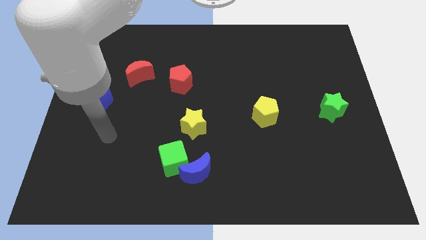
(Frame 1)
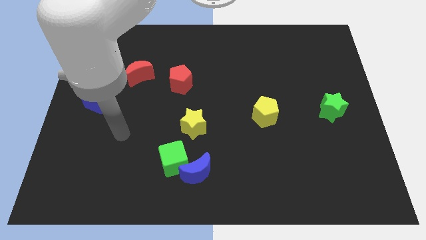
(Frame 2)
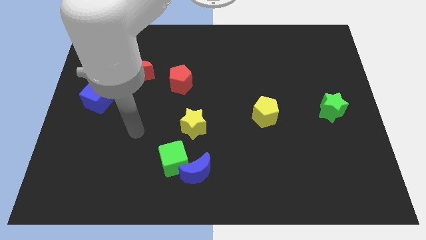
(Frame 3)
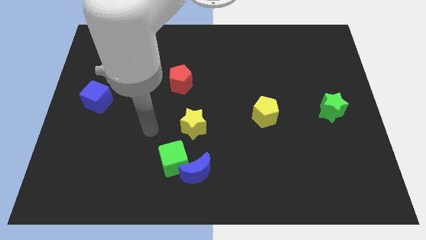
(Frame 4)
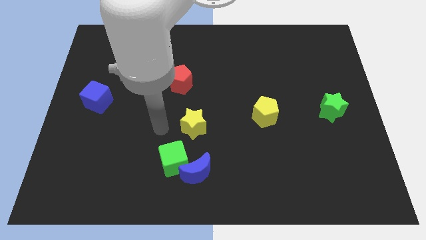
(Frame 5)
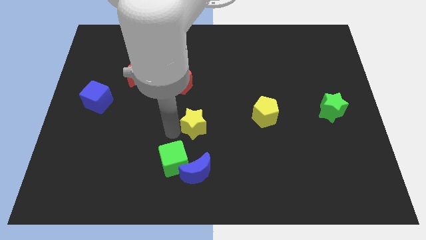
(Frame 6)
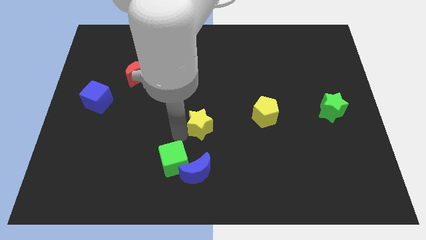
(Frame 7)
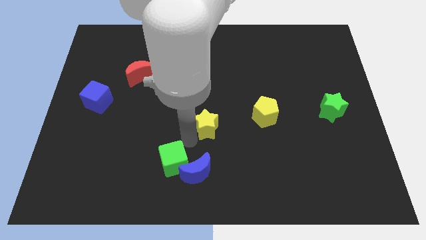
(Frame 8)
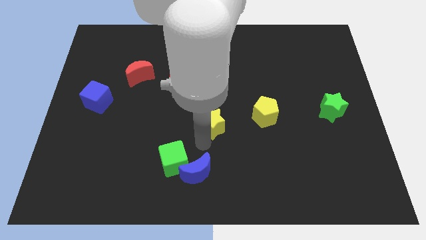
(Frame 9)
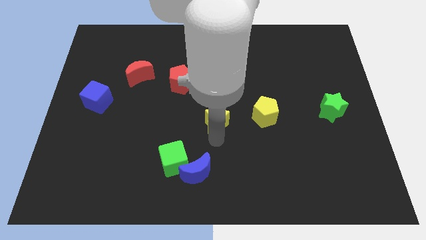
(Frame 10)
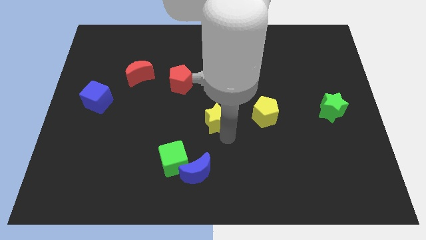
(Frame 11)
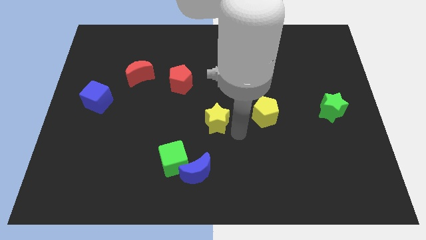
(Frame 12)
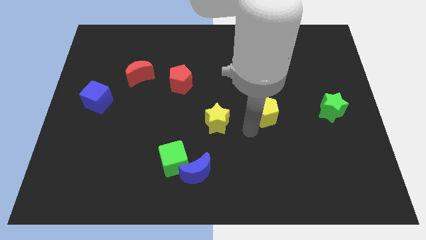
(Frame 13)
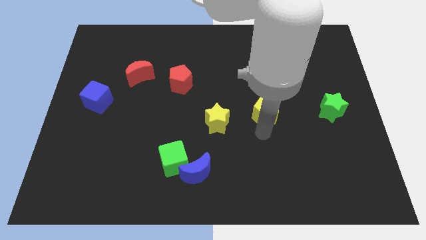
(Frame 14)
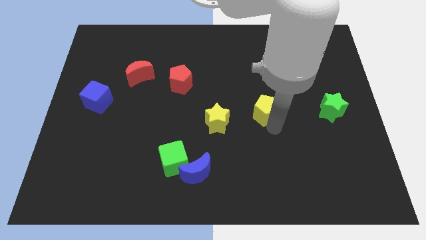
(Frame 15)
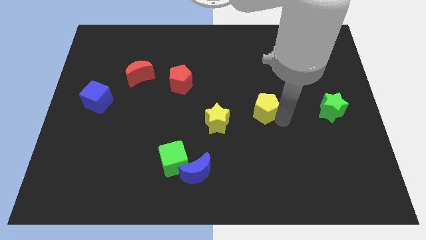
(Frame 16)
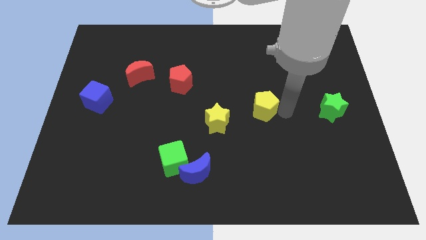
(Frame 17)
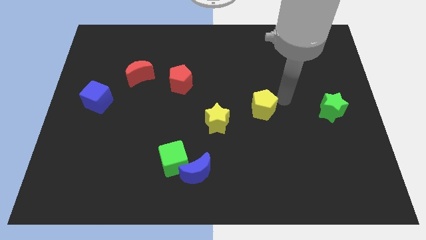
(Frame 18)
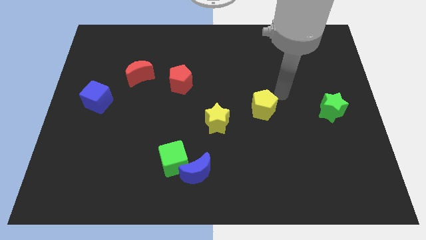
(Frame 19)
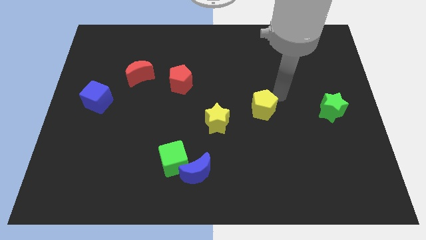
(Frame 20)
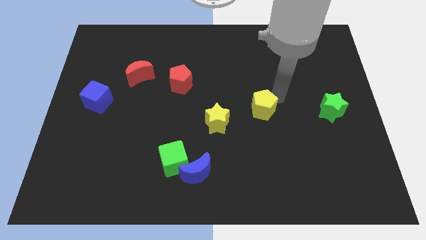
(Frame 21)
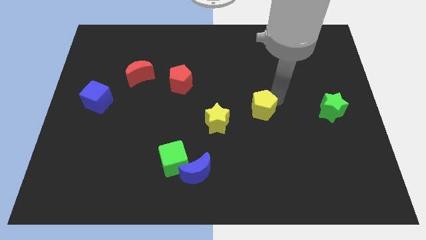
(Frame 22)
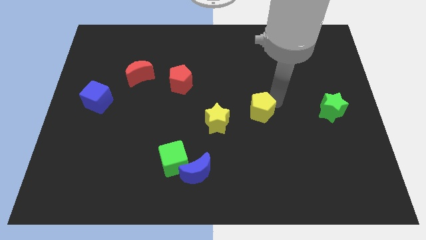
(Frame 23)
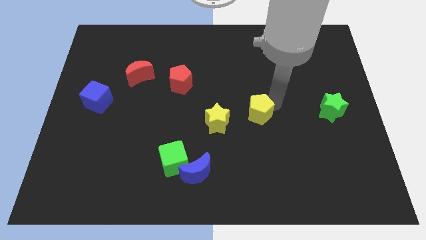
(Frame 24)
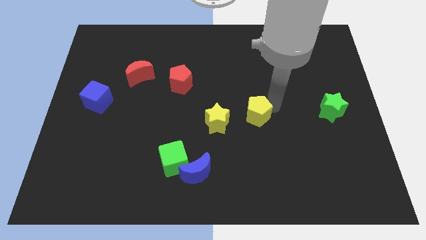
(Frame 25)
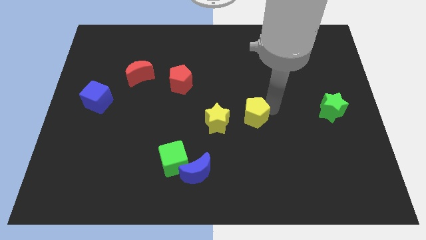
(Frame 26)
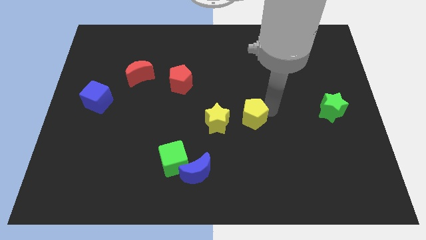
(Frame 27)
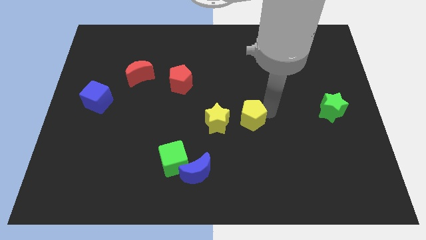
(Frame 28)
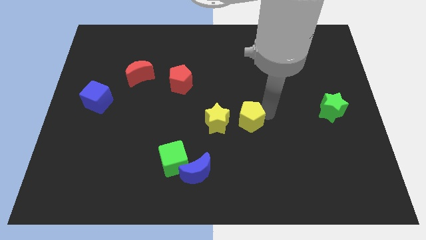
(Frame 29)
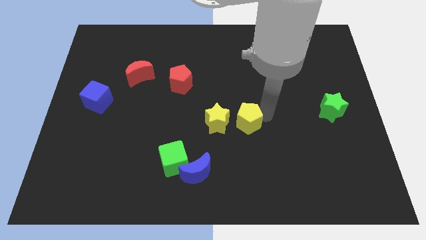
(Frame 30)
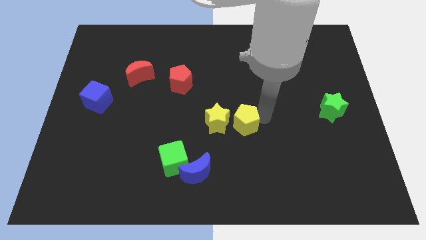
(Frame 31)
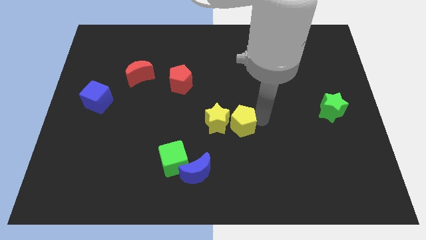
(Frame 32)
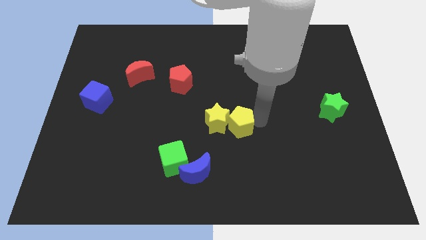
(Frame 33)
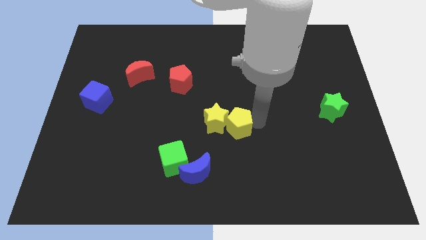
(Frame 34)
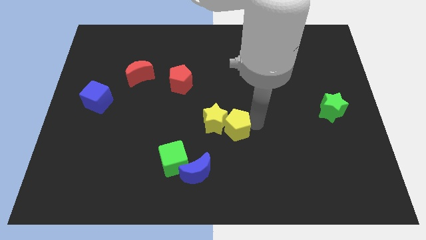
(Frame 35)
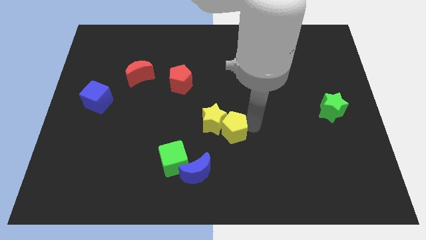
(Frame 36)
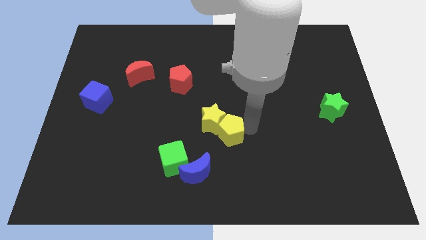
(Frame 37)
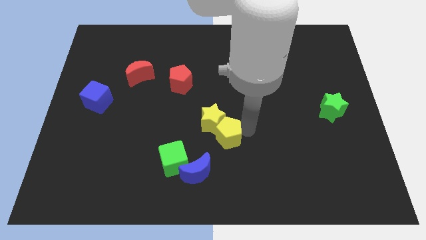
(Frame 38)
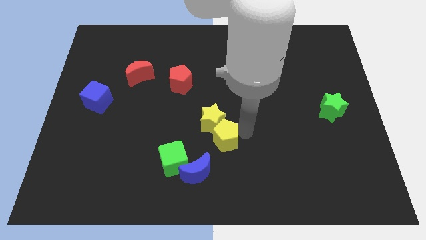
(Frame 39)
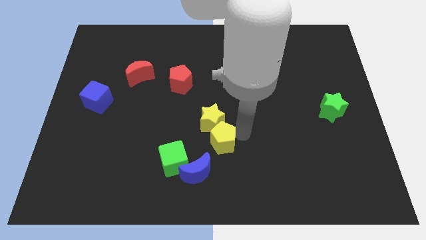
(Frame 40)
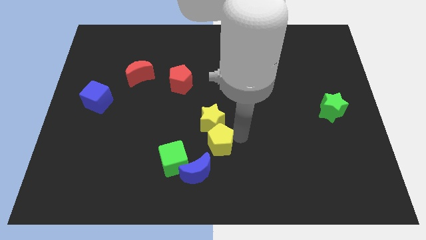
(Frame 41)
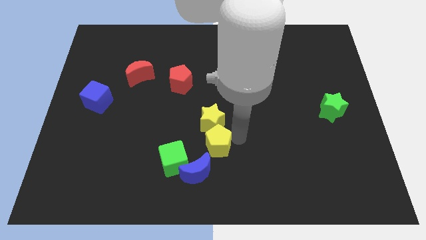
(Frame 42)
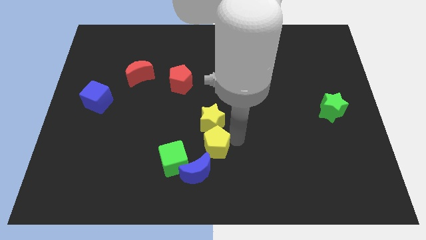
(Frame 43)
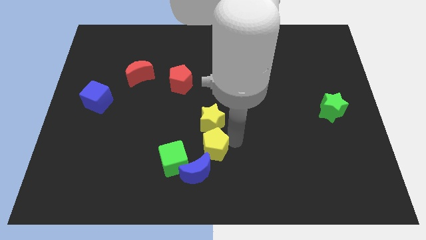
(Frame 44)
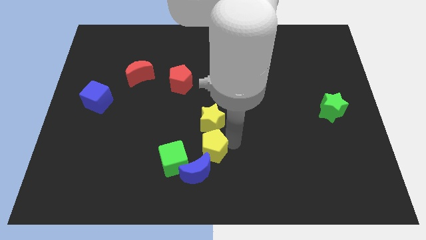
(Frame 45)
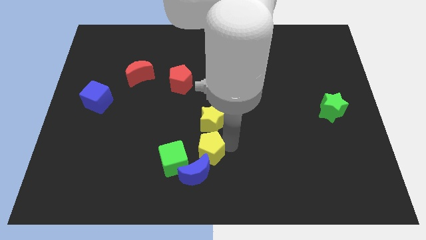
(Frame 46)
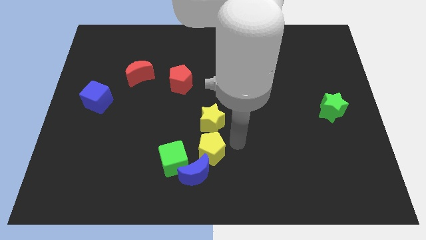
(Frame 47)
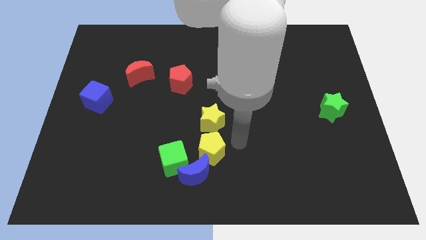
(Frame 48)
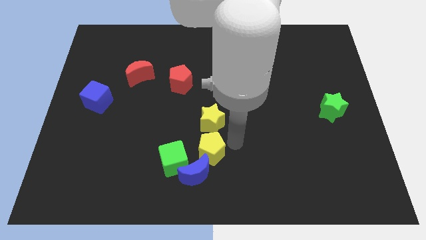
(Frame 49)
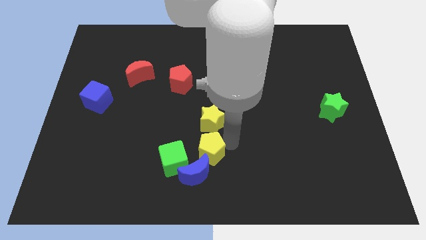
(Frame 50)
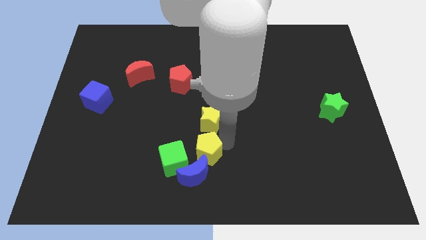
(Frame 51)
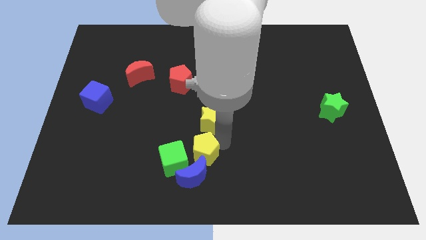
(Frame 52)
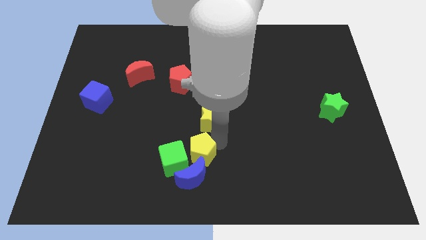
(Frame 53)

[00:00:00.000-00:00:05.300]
push the yellow pentagon to the green cube

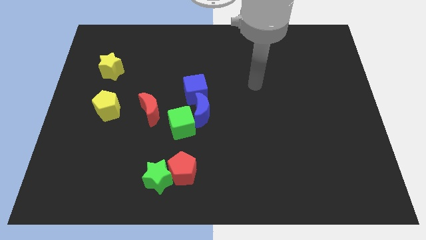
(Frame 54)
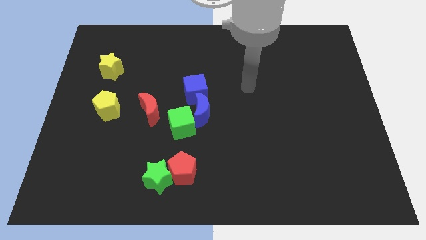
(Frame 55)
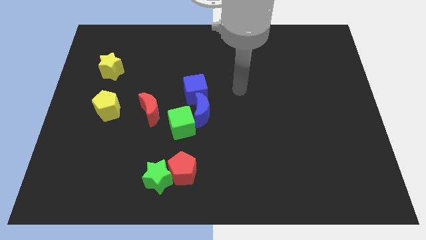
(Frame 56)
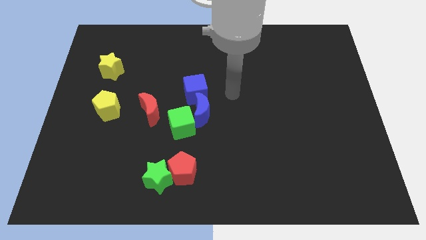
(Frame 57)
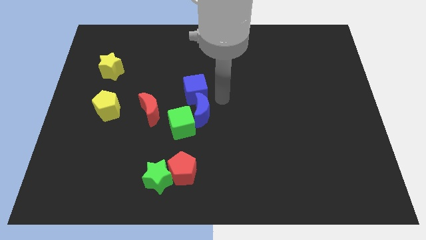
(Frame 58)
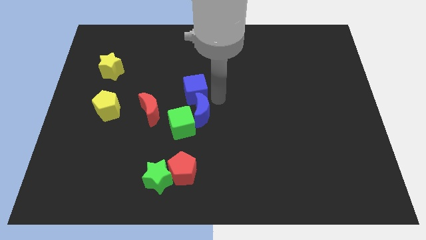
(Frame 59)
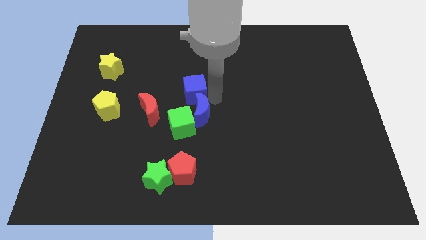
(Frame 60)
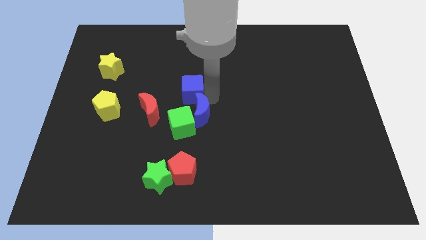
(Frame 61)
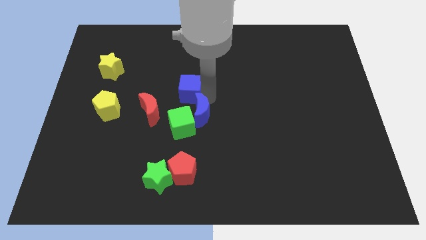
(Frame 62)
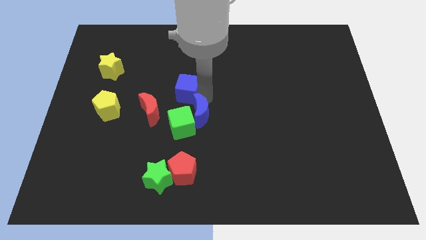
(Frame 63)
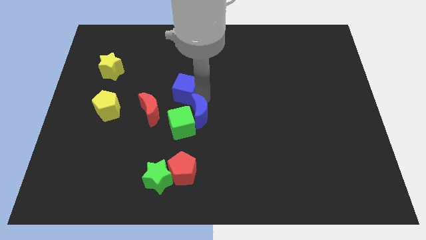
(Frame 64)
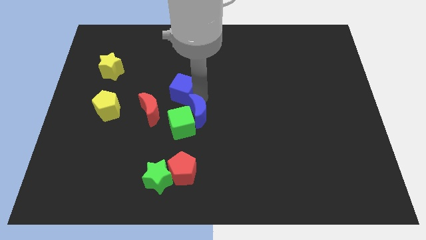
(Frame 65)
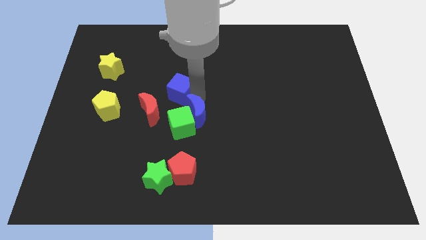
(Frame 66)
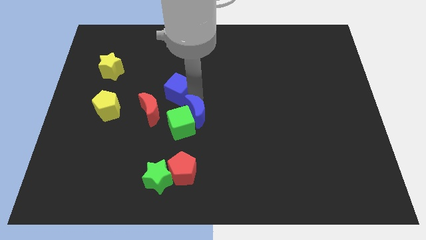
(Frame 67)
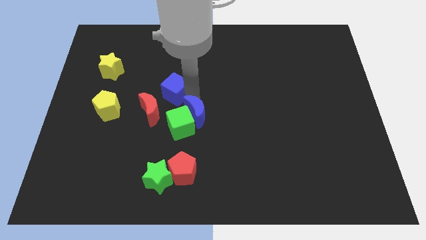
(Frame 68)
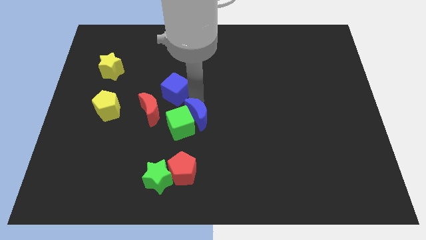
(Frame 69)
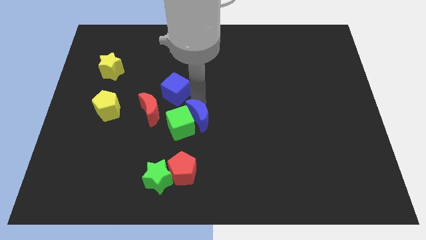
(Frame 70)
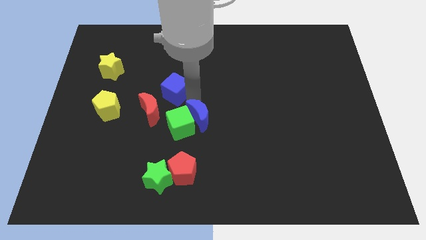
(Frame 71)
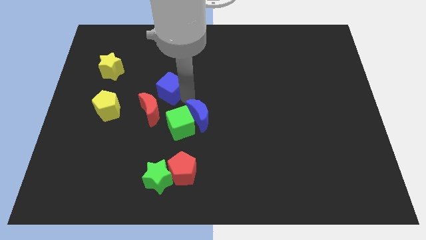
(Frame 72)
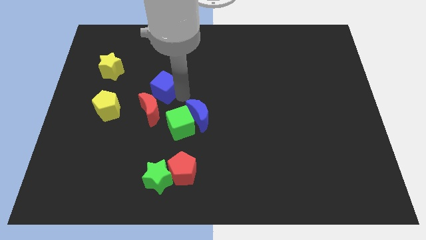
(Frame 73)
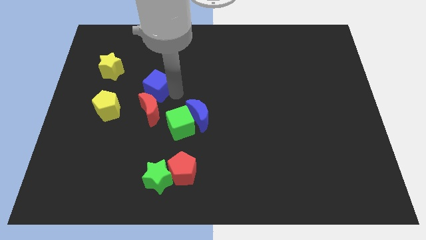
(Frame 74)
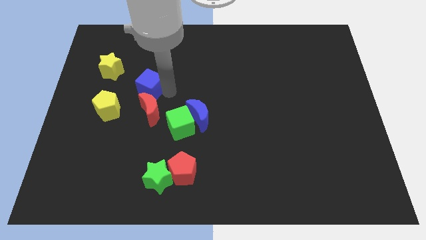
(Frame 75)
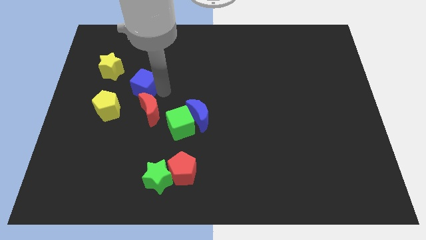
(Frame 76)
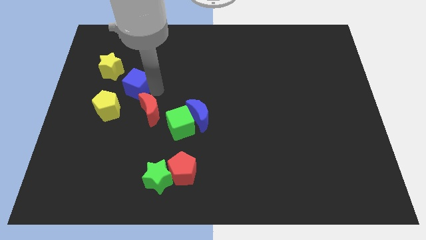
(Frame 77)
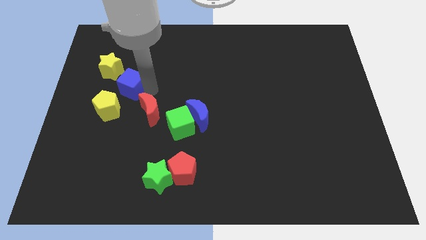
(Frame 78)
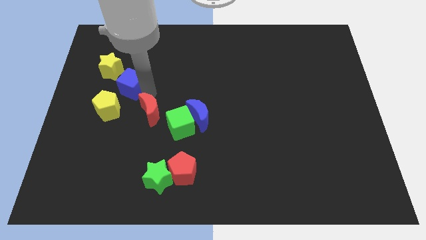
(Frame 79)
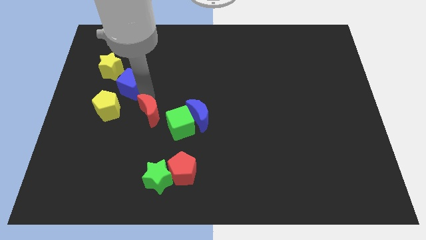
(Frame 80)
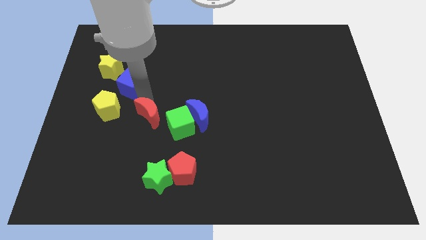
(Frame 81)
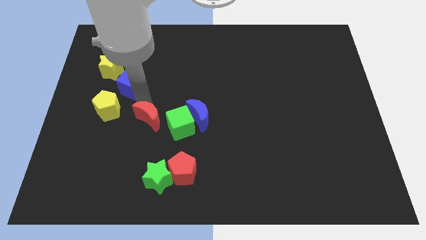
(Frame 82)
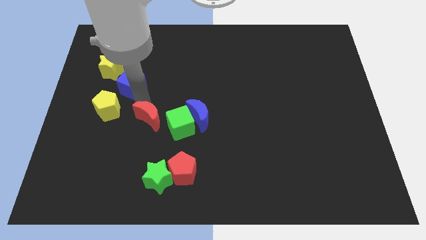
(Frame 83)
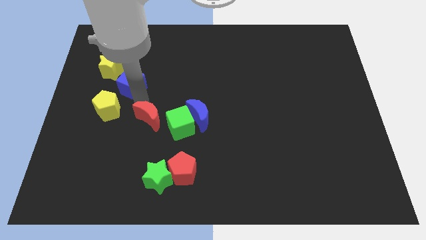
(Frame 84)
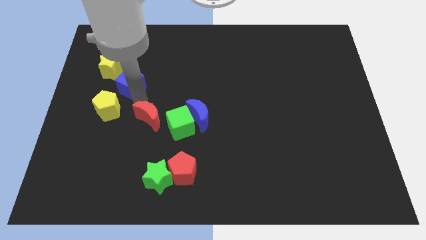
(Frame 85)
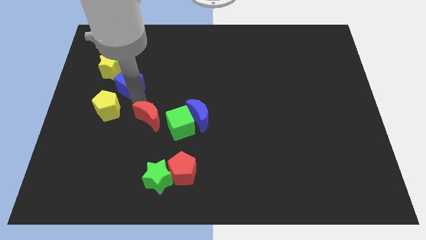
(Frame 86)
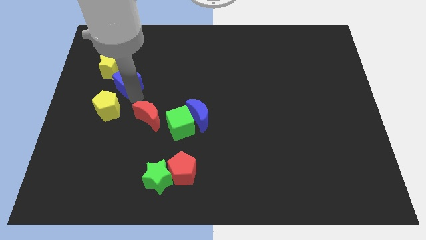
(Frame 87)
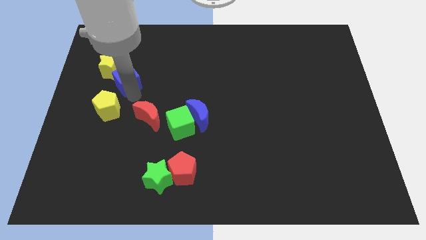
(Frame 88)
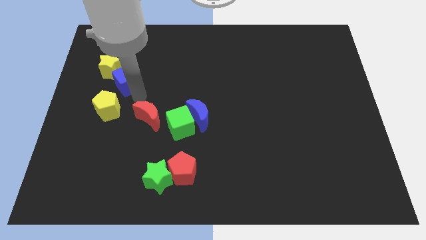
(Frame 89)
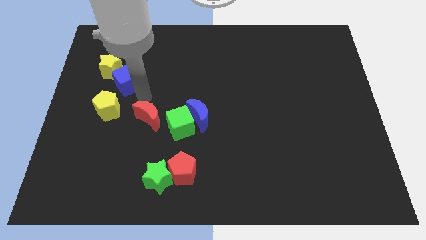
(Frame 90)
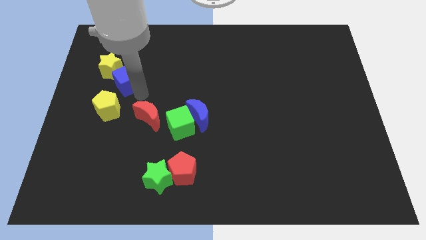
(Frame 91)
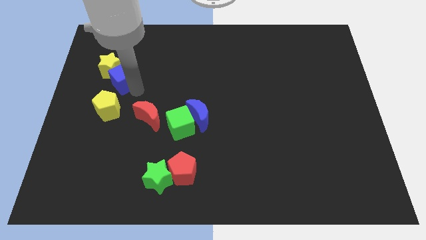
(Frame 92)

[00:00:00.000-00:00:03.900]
push the blue cube towards the yellow star
